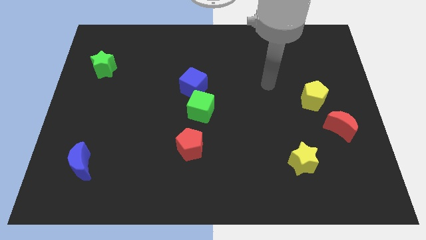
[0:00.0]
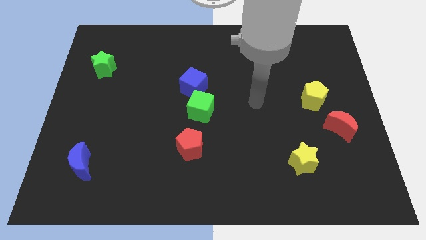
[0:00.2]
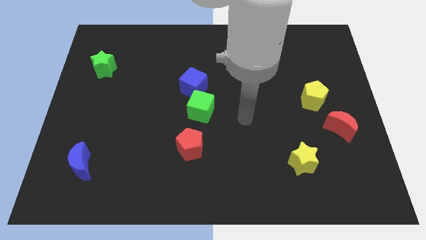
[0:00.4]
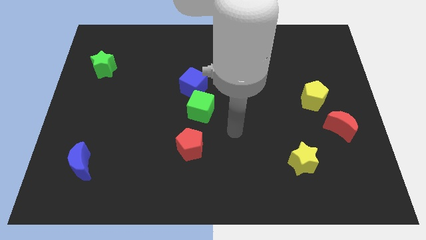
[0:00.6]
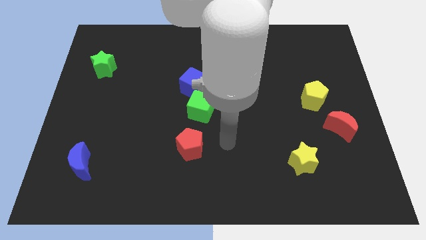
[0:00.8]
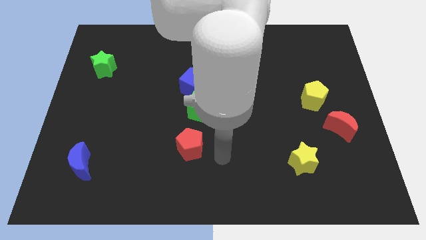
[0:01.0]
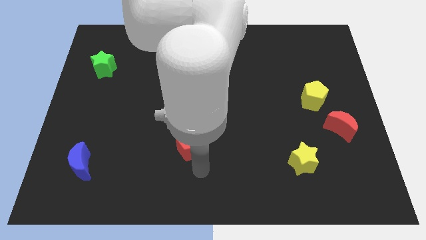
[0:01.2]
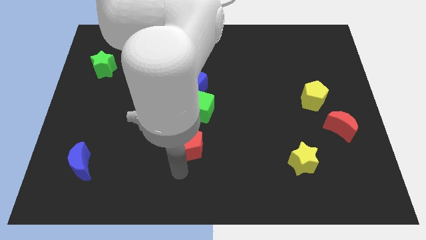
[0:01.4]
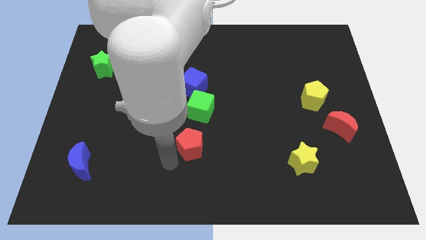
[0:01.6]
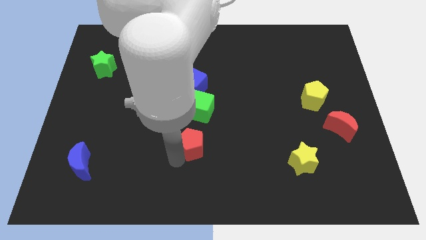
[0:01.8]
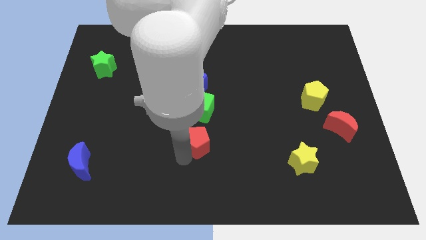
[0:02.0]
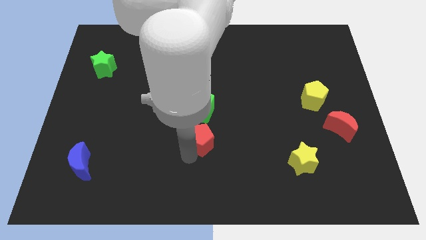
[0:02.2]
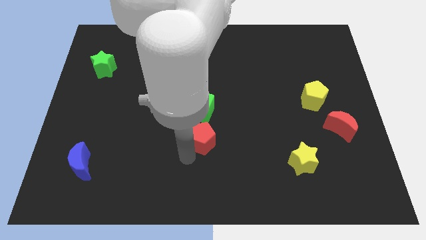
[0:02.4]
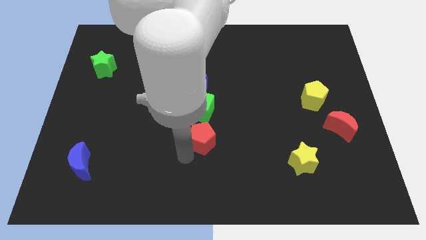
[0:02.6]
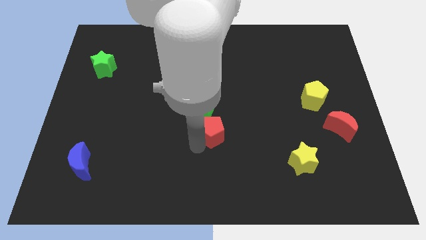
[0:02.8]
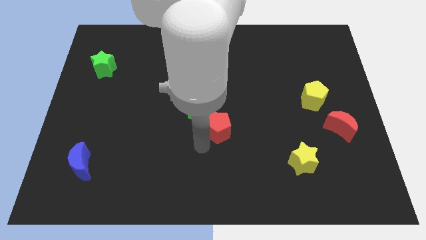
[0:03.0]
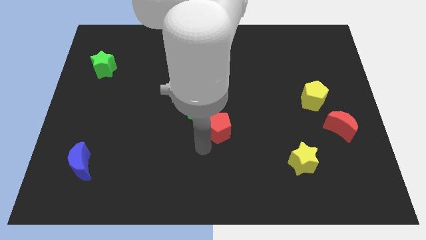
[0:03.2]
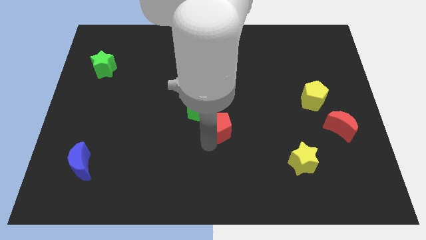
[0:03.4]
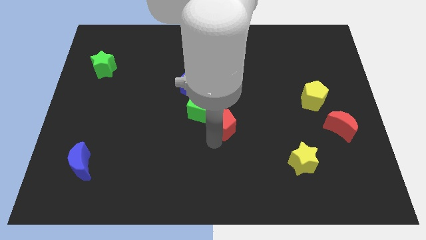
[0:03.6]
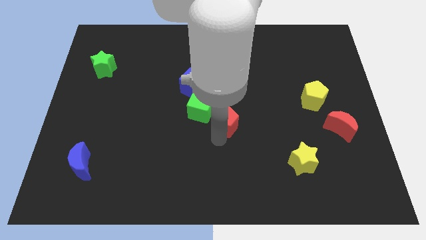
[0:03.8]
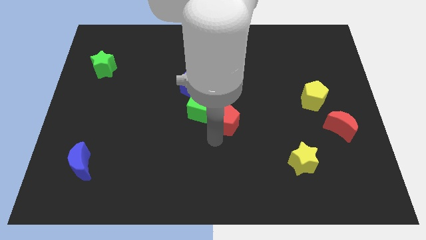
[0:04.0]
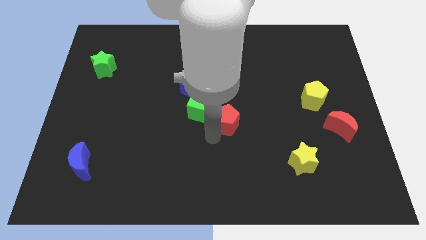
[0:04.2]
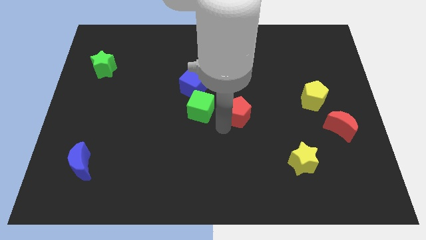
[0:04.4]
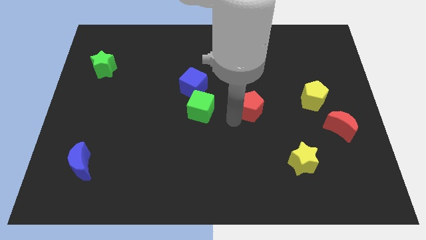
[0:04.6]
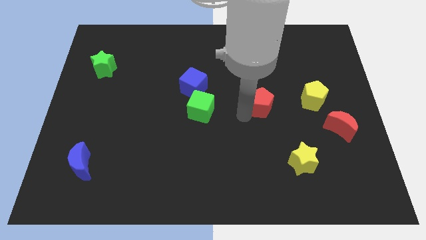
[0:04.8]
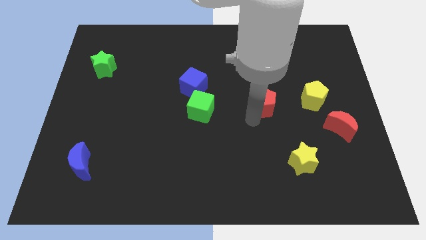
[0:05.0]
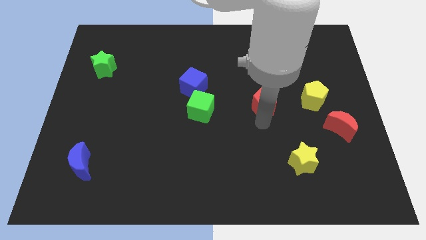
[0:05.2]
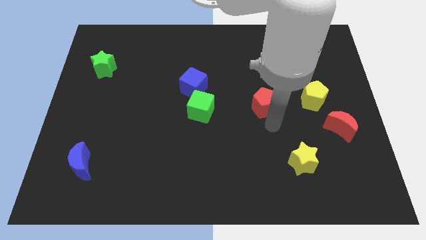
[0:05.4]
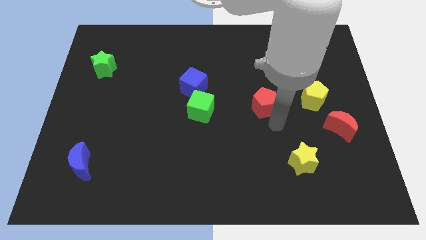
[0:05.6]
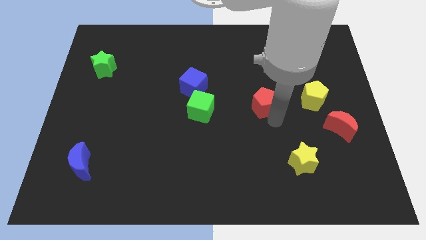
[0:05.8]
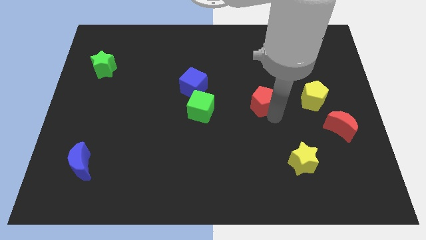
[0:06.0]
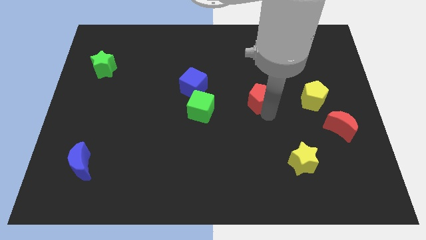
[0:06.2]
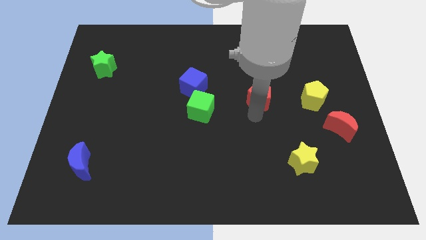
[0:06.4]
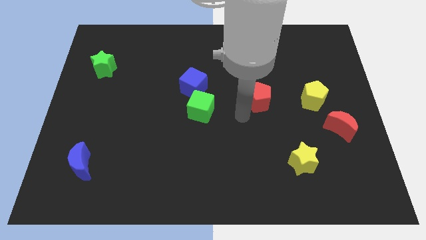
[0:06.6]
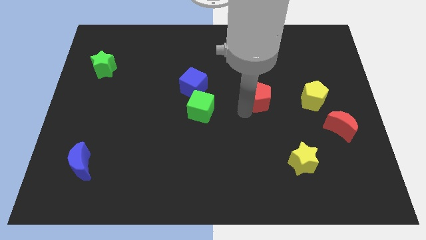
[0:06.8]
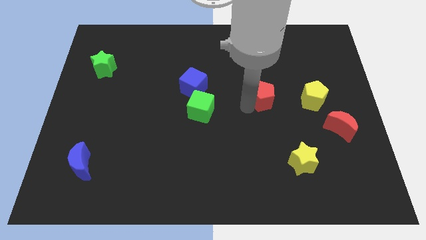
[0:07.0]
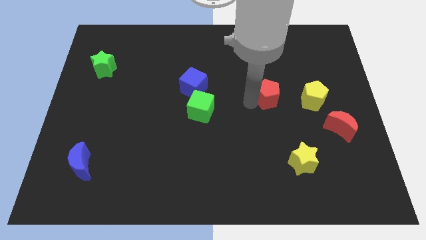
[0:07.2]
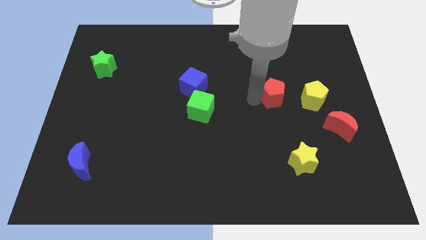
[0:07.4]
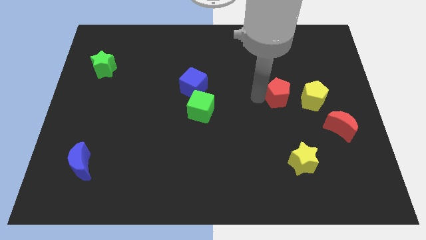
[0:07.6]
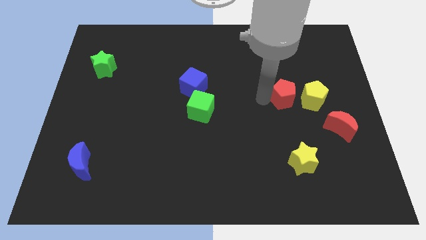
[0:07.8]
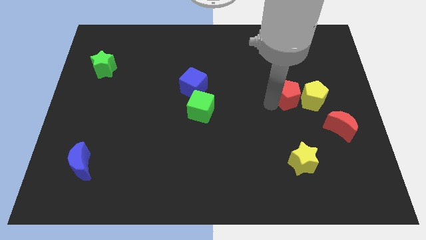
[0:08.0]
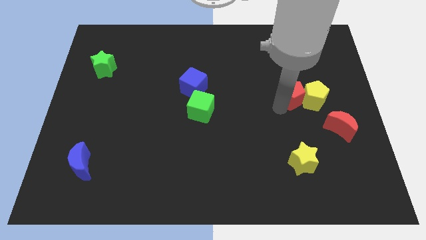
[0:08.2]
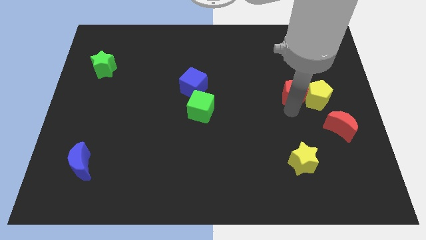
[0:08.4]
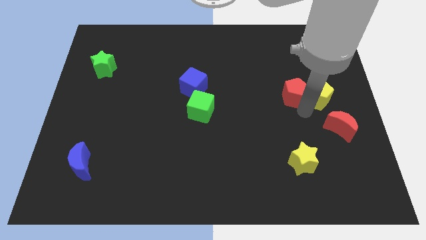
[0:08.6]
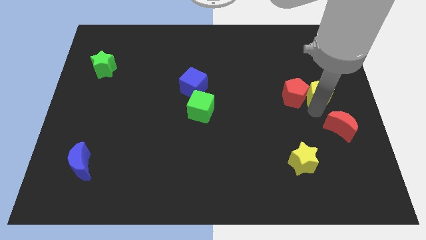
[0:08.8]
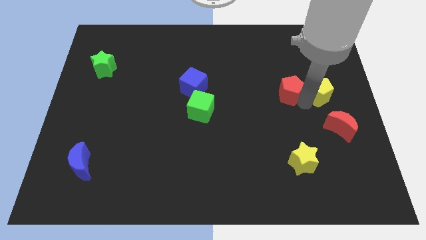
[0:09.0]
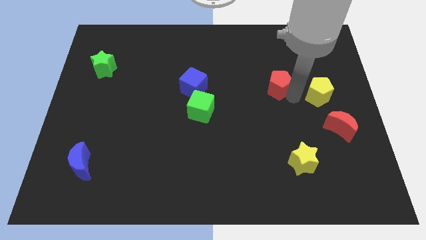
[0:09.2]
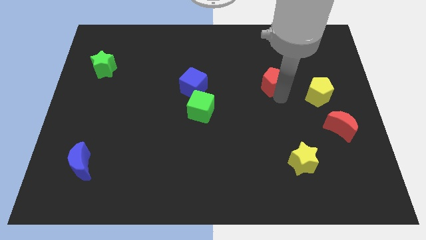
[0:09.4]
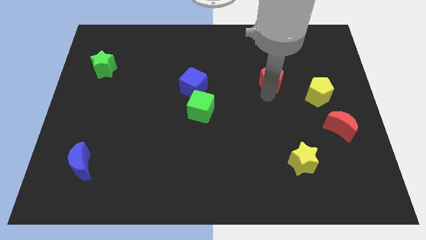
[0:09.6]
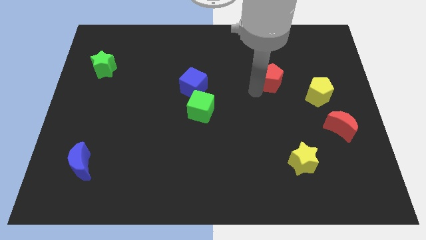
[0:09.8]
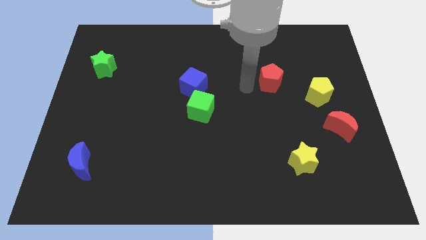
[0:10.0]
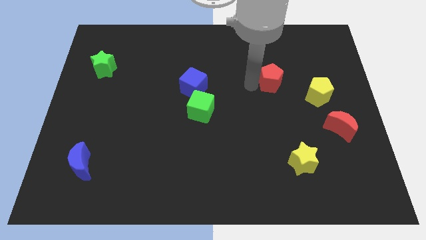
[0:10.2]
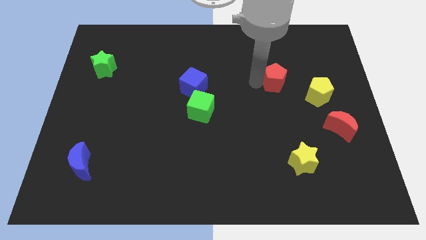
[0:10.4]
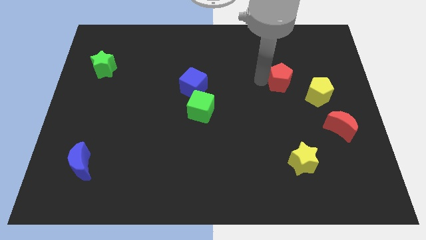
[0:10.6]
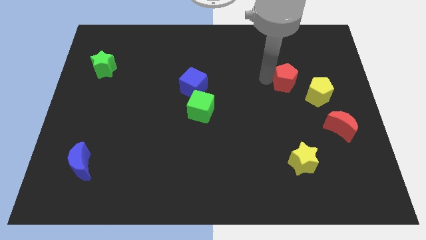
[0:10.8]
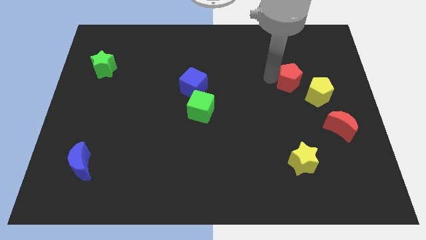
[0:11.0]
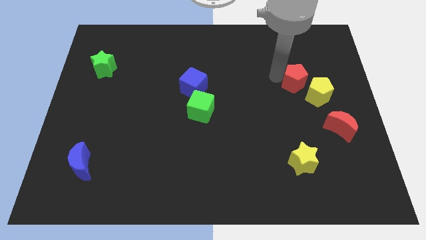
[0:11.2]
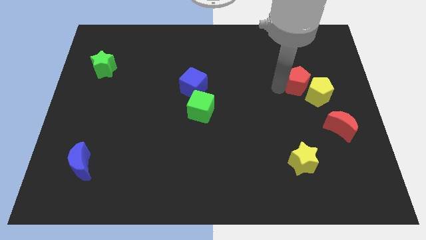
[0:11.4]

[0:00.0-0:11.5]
slide the red pentagon above the yellow pentagon

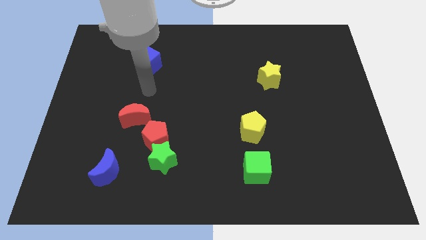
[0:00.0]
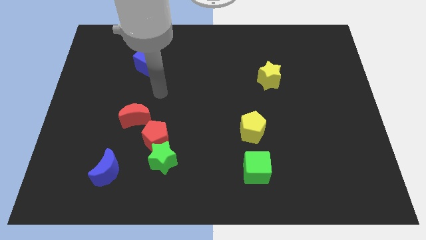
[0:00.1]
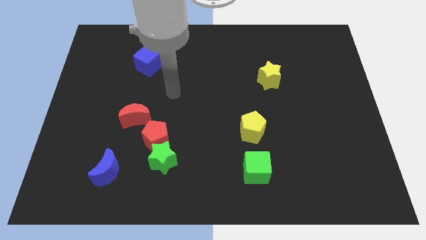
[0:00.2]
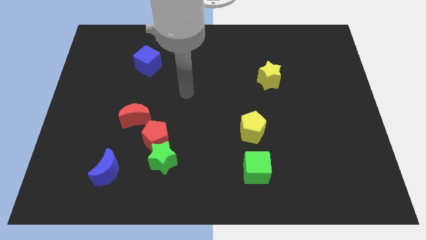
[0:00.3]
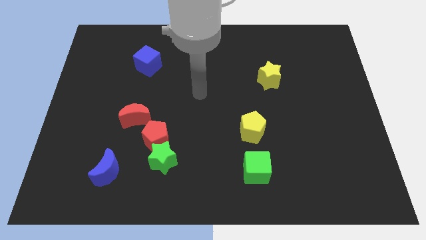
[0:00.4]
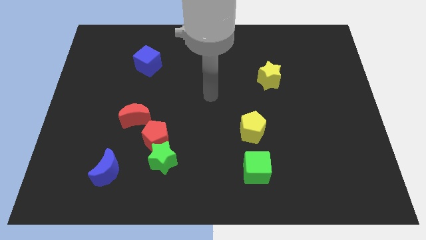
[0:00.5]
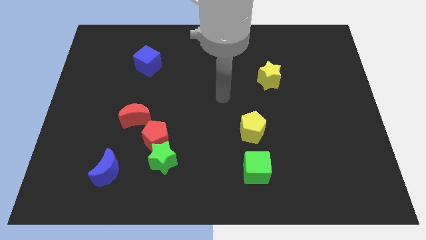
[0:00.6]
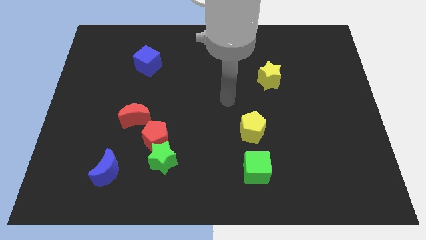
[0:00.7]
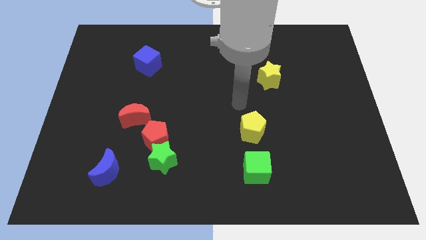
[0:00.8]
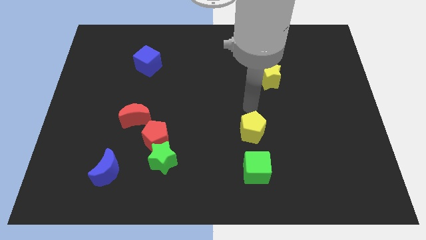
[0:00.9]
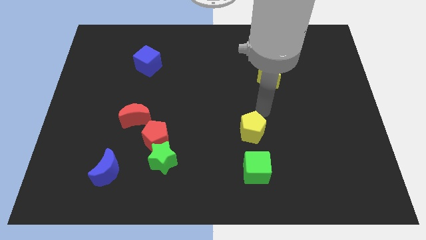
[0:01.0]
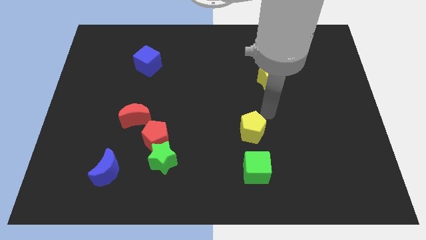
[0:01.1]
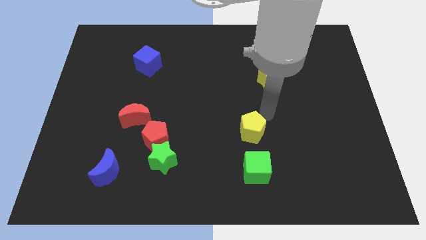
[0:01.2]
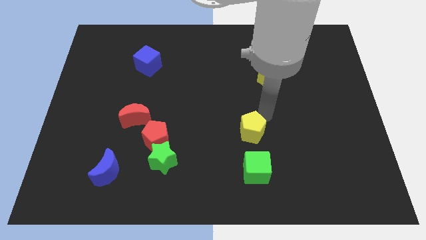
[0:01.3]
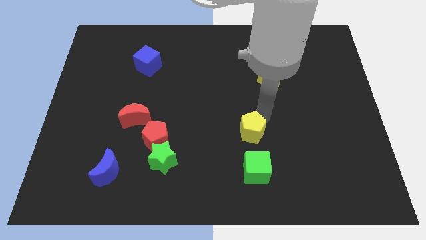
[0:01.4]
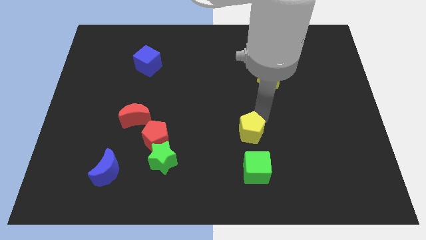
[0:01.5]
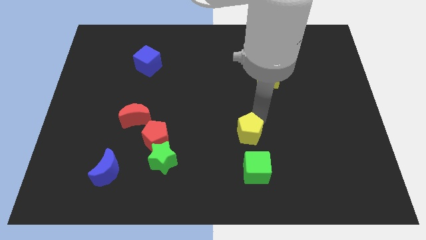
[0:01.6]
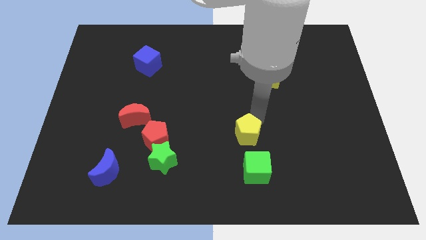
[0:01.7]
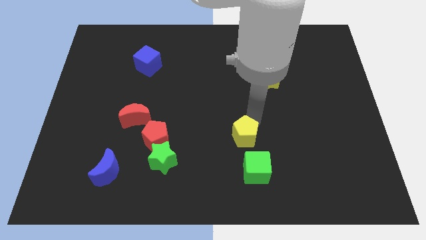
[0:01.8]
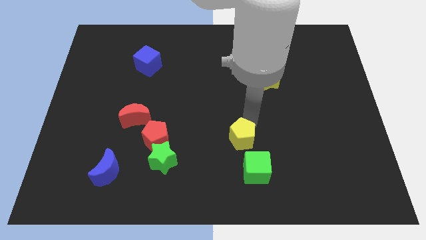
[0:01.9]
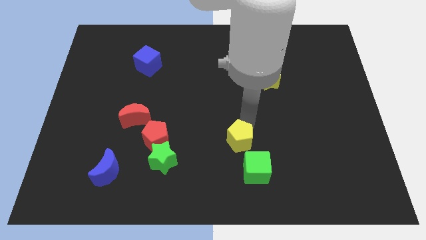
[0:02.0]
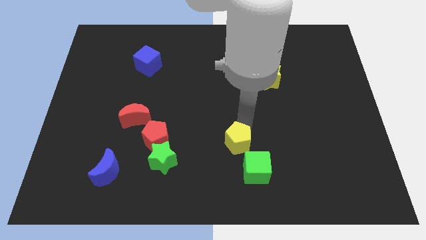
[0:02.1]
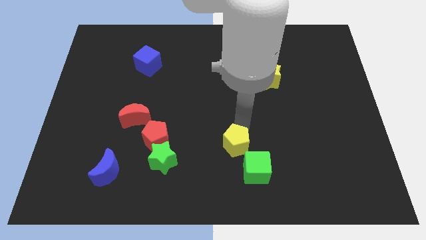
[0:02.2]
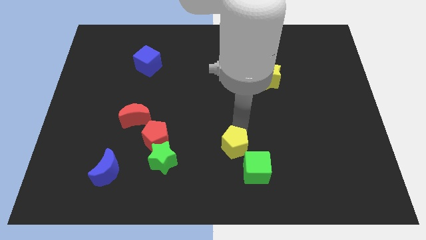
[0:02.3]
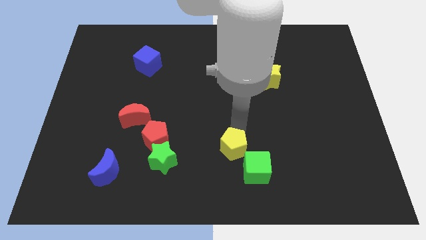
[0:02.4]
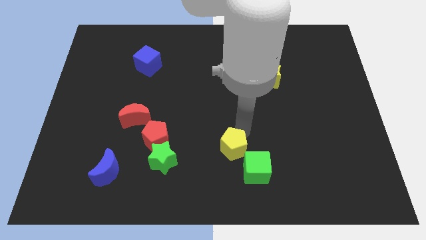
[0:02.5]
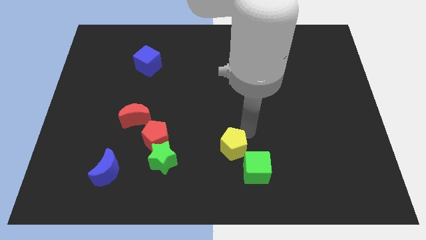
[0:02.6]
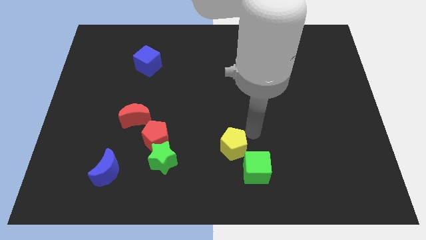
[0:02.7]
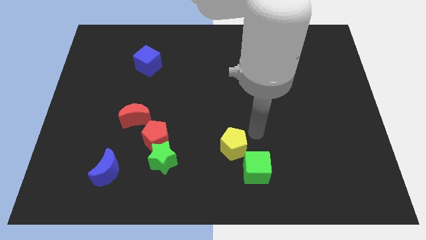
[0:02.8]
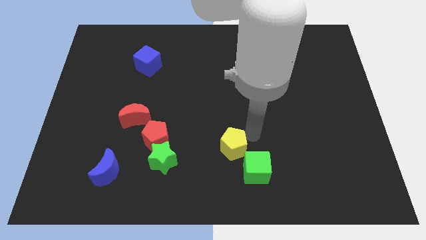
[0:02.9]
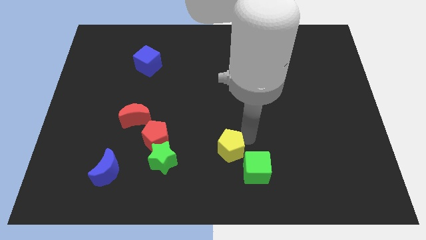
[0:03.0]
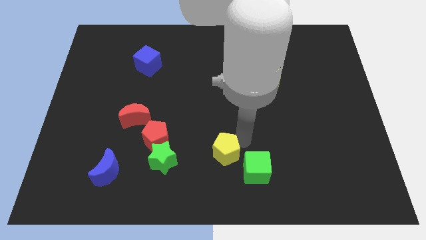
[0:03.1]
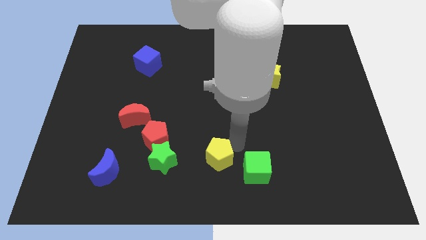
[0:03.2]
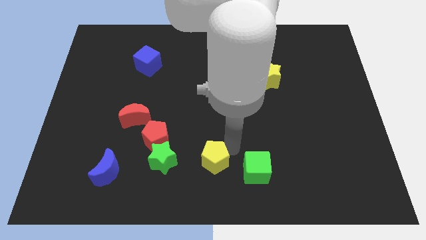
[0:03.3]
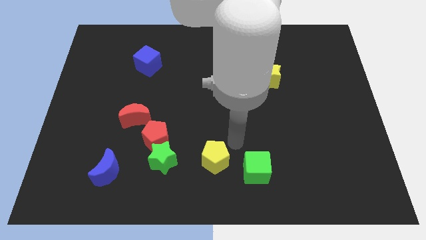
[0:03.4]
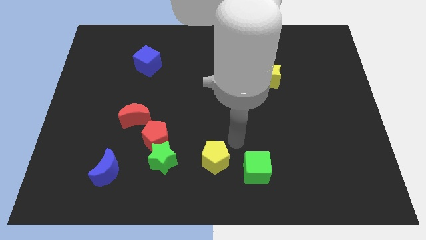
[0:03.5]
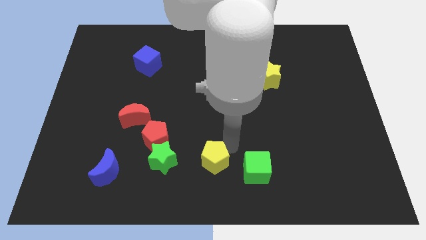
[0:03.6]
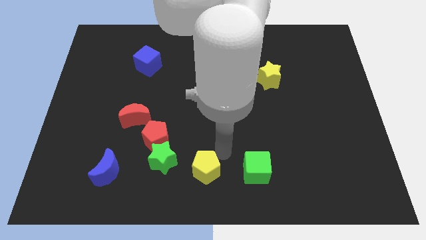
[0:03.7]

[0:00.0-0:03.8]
move the yellow pentagon to the bottom right side of the green star
